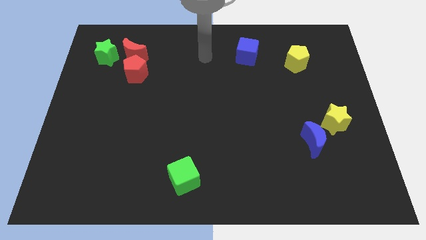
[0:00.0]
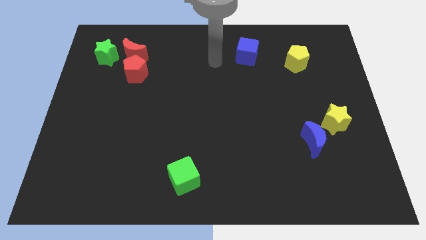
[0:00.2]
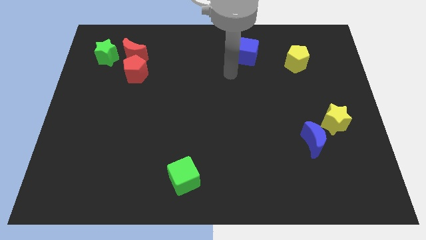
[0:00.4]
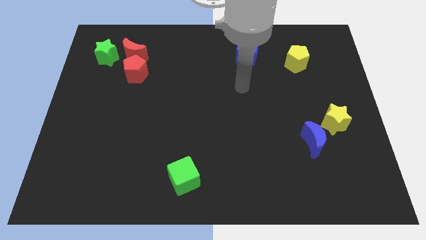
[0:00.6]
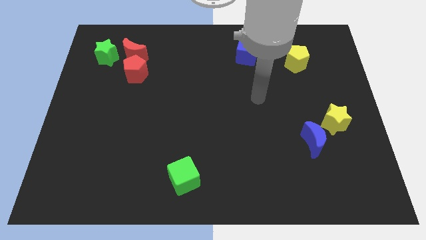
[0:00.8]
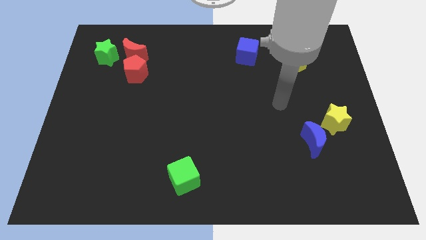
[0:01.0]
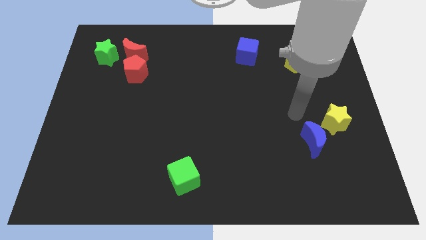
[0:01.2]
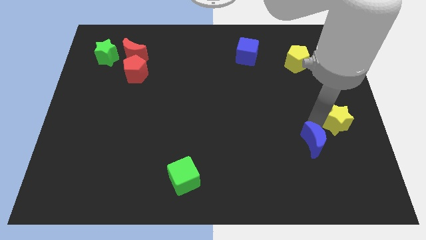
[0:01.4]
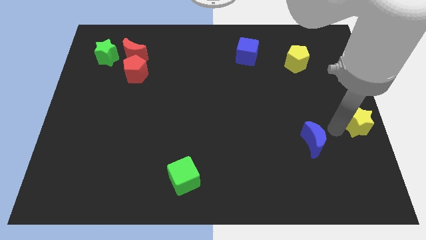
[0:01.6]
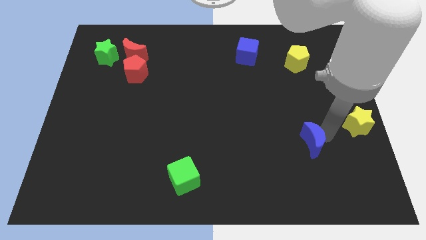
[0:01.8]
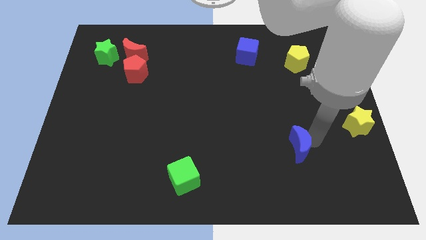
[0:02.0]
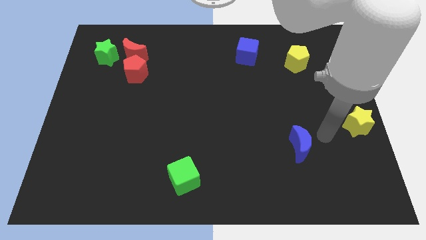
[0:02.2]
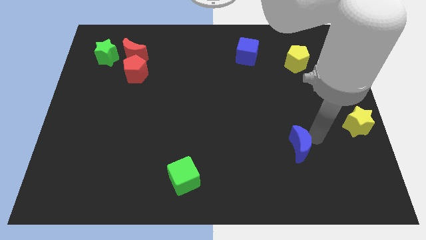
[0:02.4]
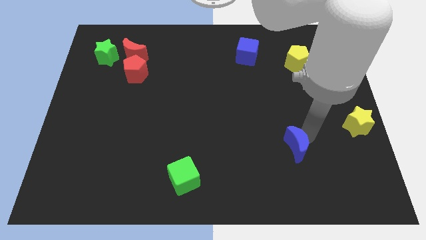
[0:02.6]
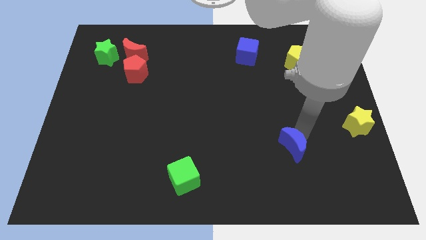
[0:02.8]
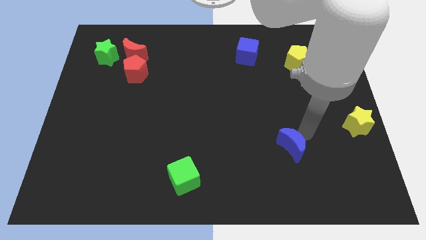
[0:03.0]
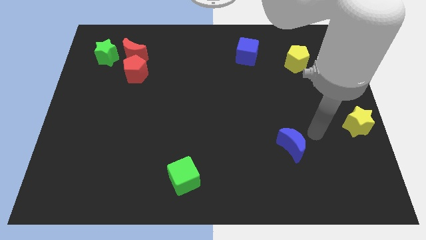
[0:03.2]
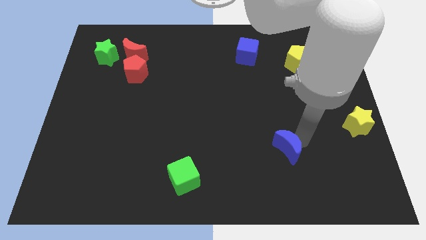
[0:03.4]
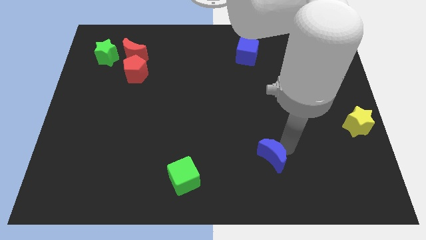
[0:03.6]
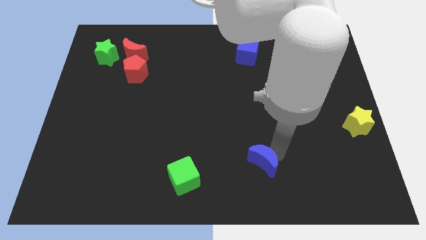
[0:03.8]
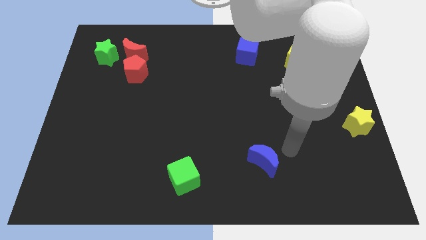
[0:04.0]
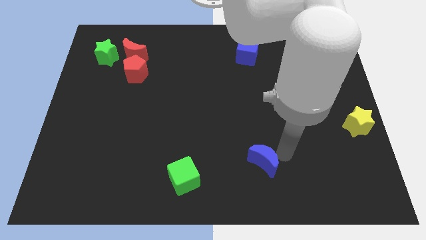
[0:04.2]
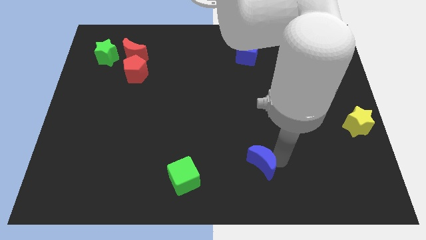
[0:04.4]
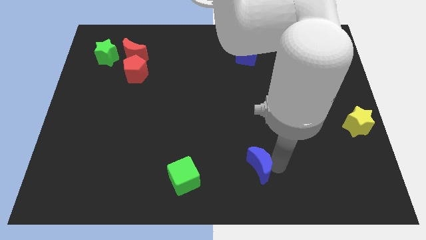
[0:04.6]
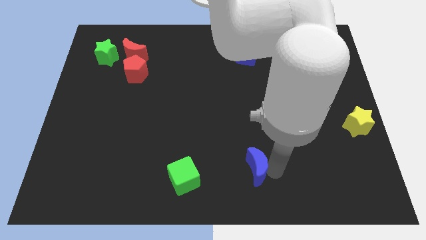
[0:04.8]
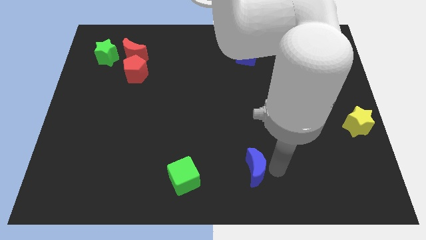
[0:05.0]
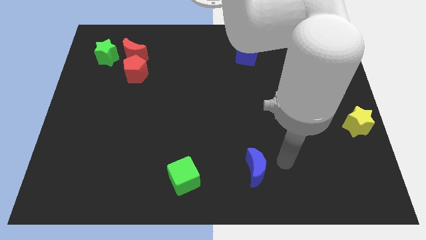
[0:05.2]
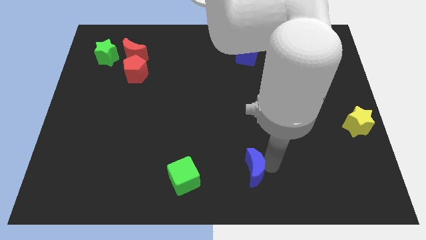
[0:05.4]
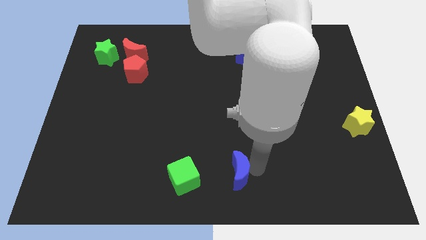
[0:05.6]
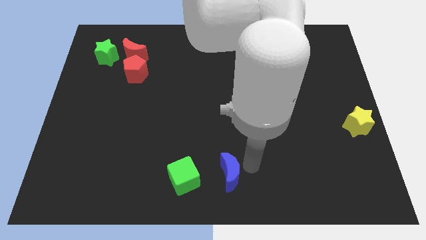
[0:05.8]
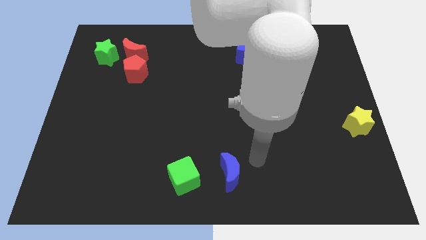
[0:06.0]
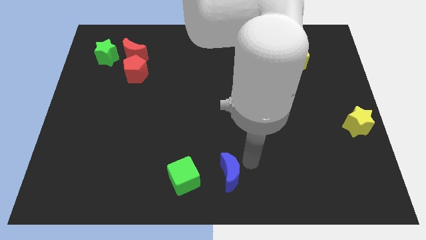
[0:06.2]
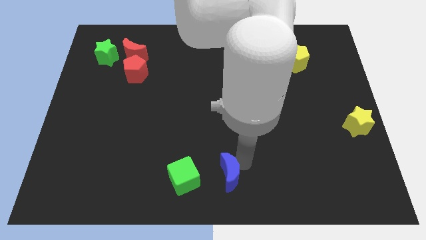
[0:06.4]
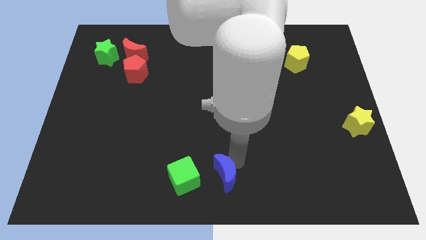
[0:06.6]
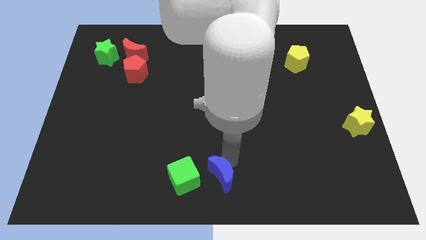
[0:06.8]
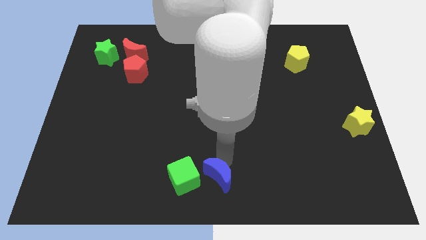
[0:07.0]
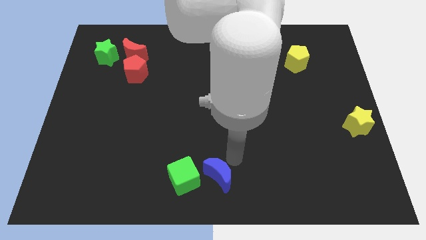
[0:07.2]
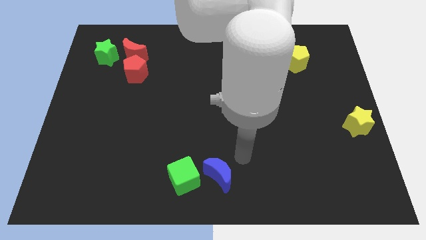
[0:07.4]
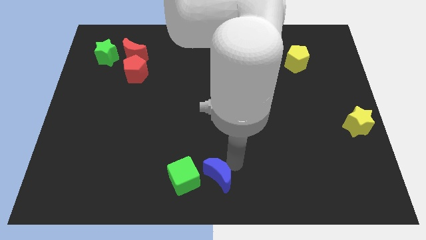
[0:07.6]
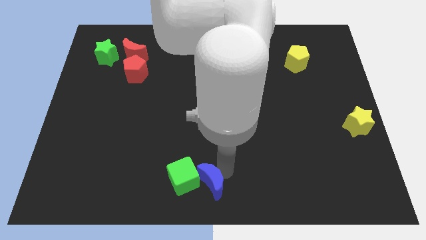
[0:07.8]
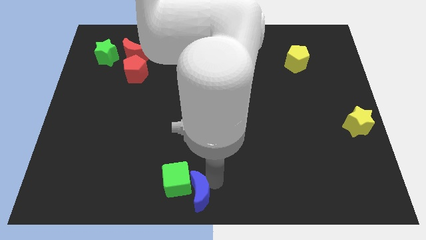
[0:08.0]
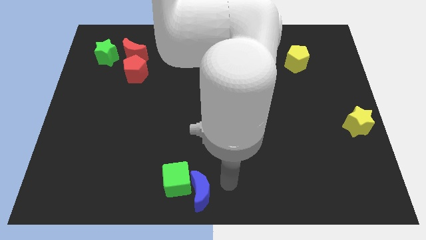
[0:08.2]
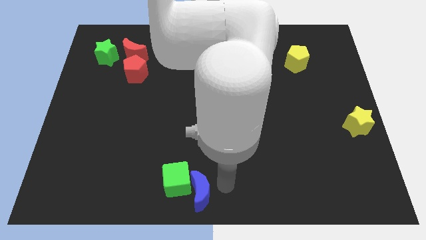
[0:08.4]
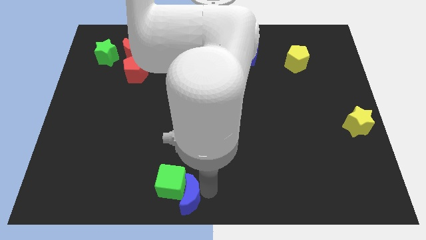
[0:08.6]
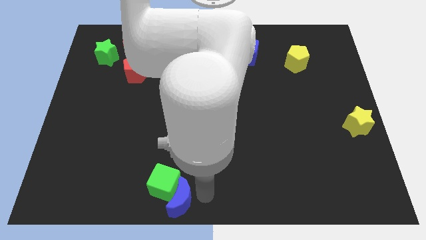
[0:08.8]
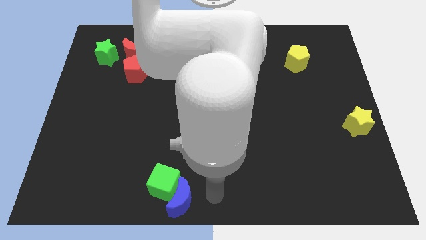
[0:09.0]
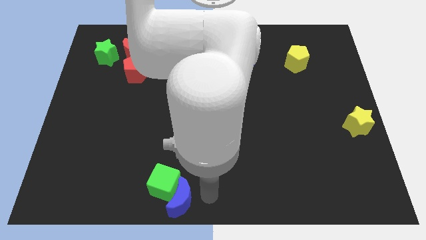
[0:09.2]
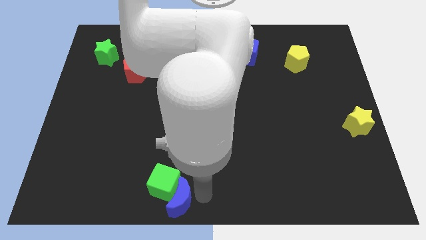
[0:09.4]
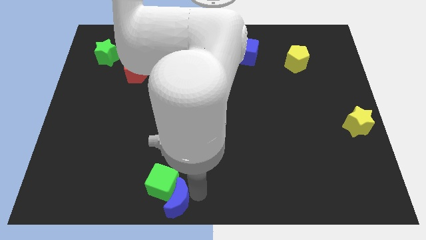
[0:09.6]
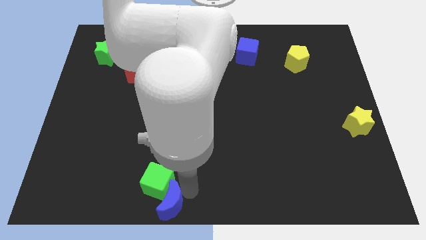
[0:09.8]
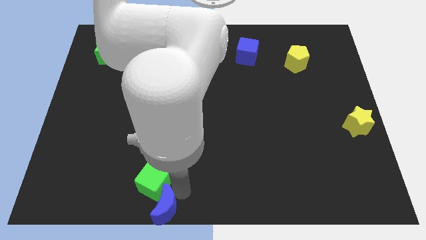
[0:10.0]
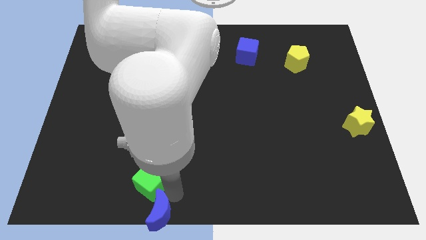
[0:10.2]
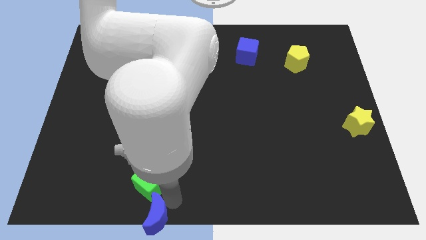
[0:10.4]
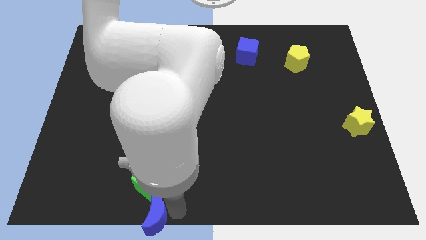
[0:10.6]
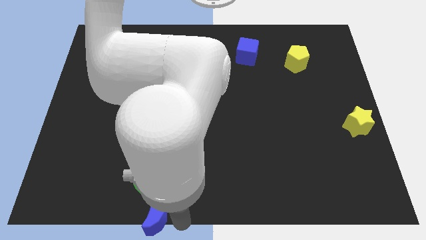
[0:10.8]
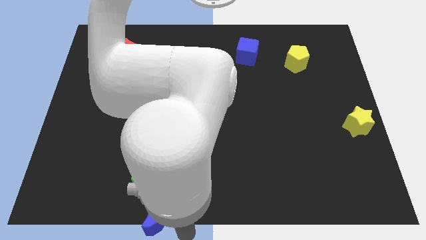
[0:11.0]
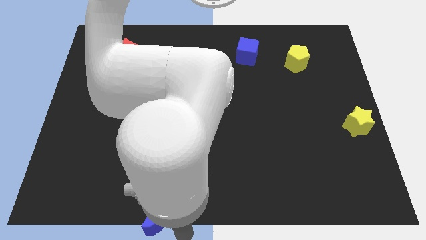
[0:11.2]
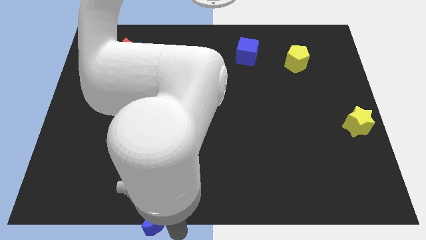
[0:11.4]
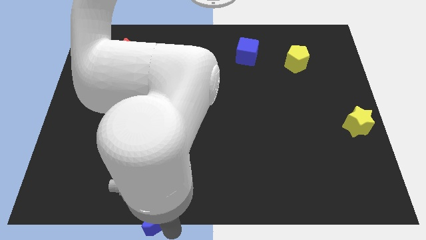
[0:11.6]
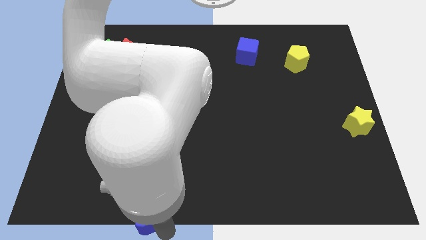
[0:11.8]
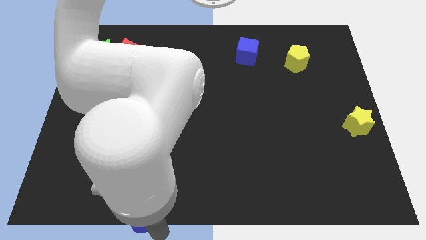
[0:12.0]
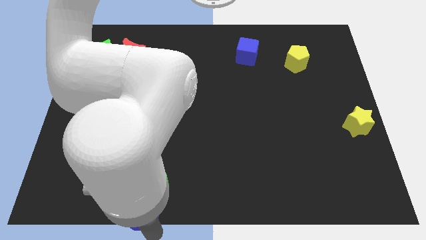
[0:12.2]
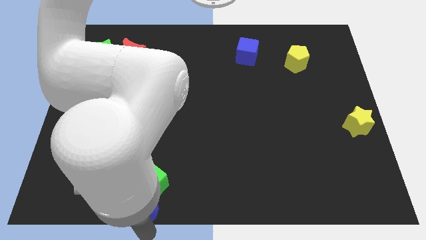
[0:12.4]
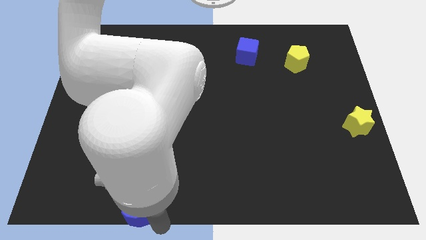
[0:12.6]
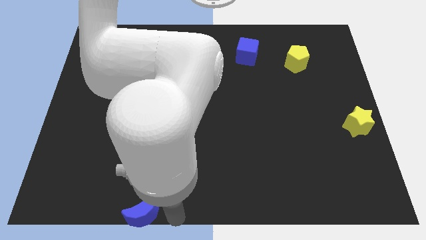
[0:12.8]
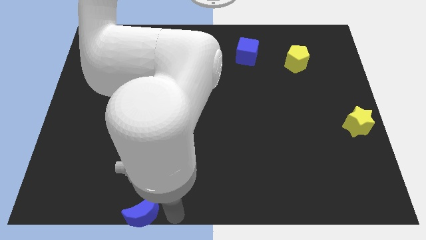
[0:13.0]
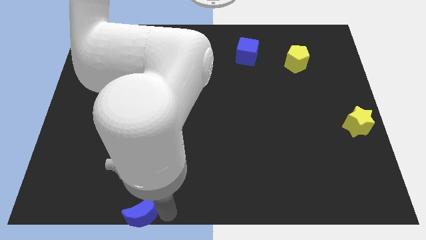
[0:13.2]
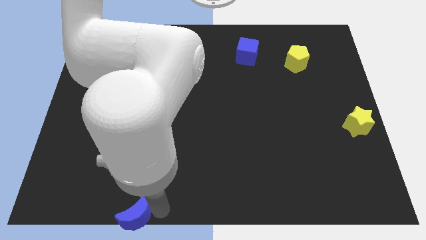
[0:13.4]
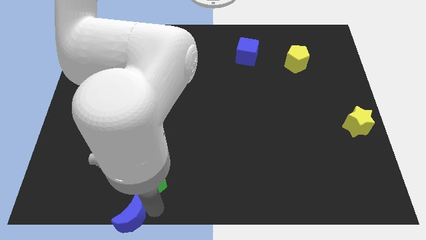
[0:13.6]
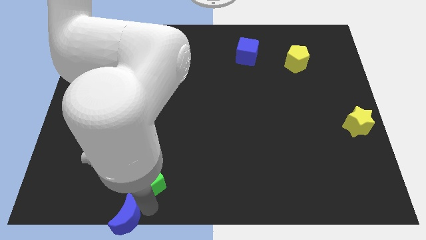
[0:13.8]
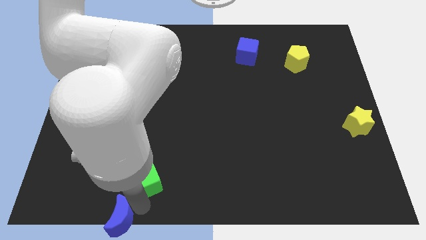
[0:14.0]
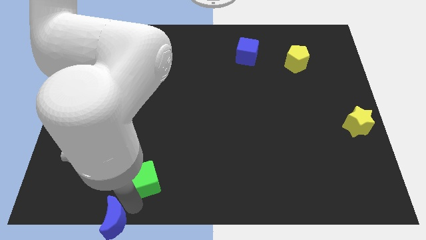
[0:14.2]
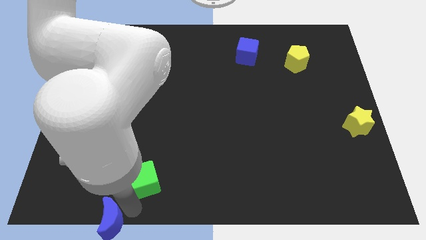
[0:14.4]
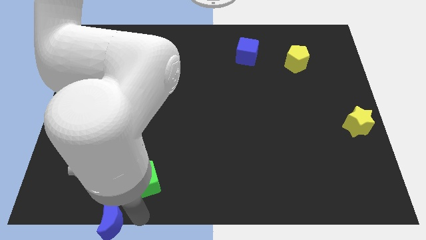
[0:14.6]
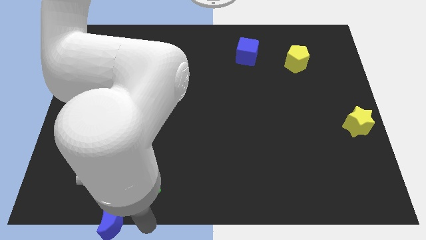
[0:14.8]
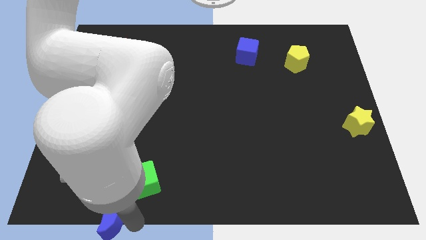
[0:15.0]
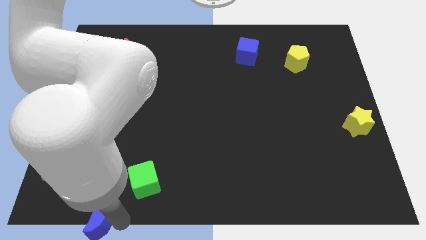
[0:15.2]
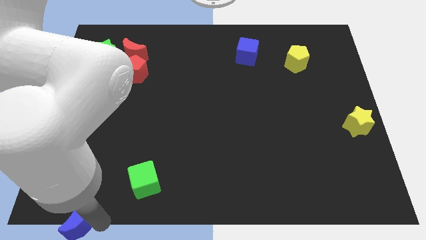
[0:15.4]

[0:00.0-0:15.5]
move the blue moon to the bottom left
